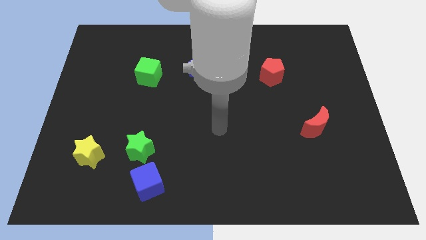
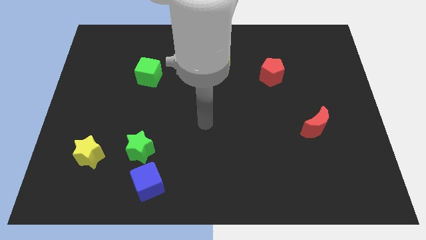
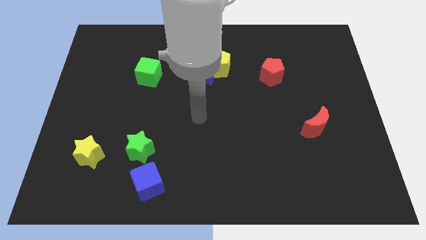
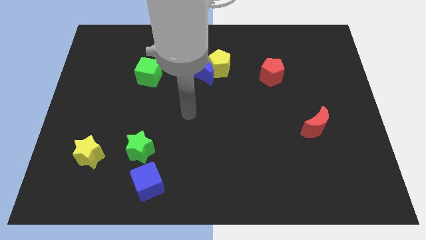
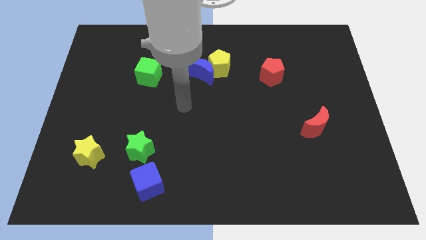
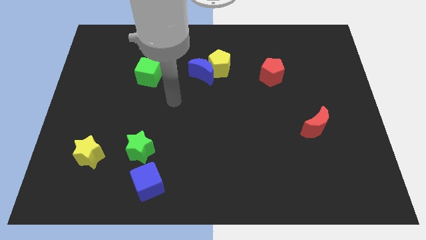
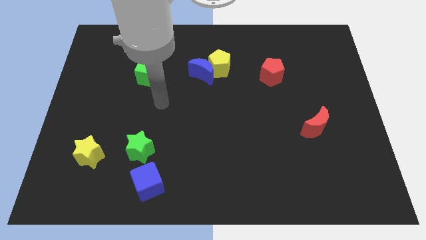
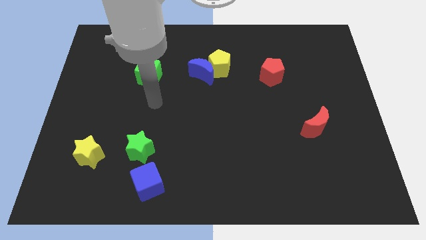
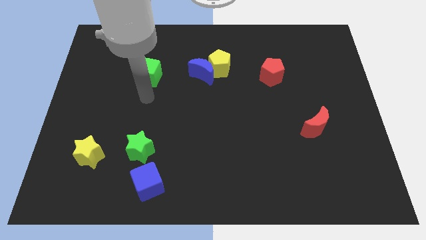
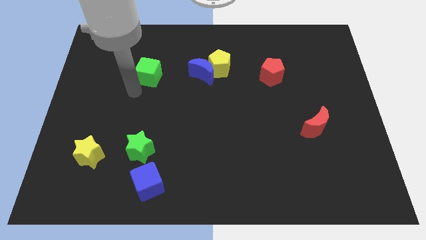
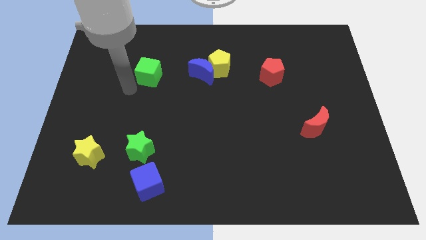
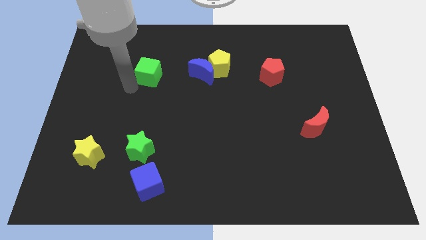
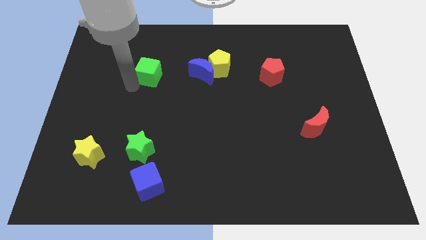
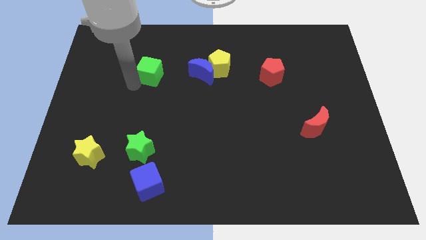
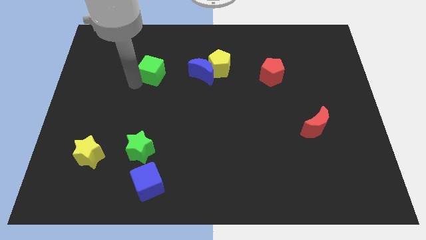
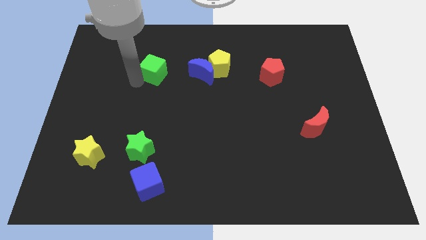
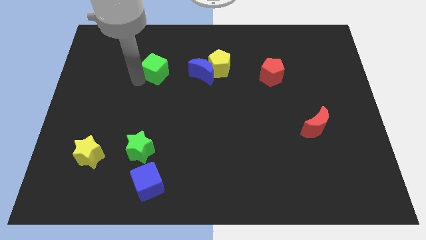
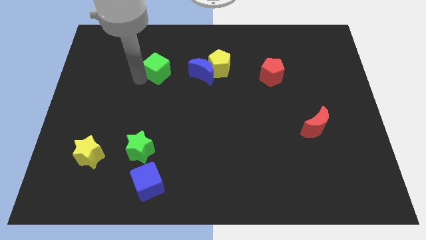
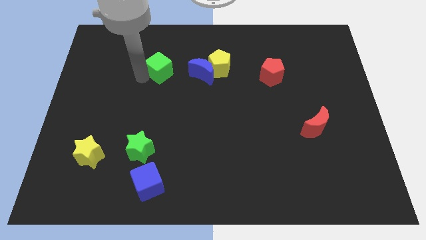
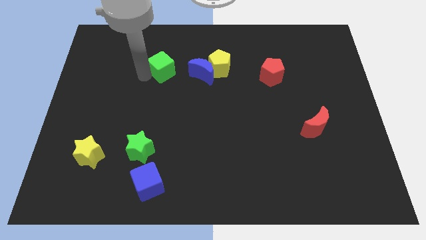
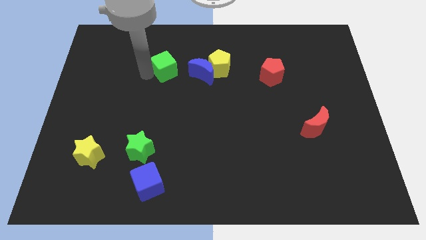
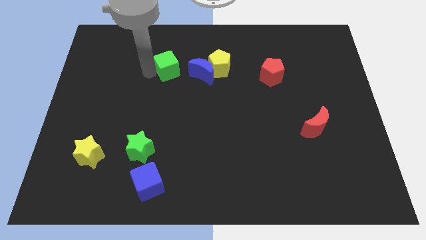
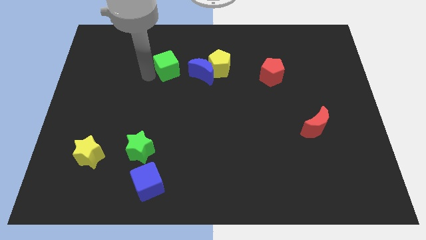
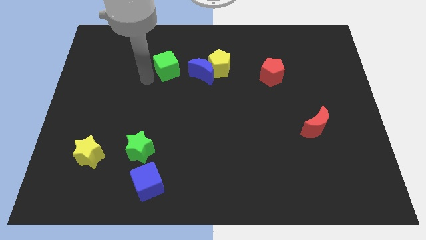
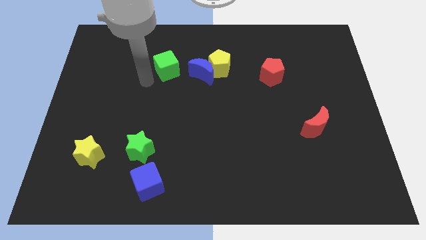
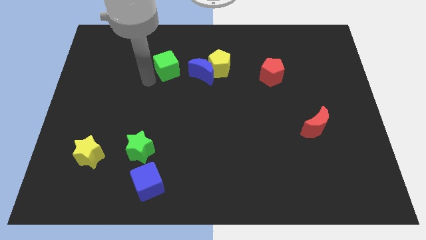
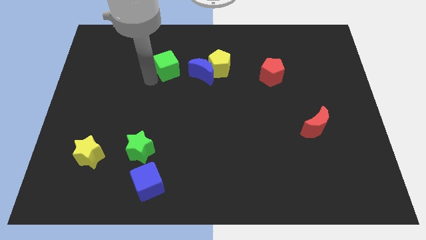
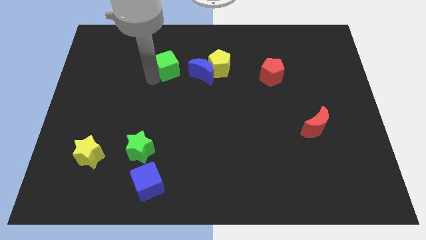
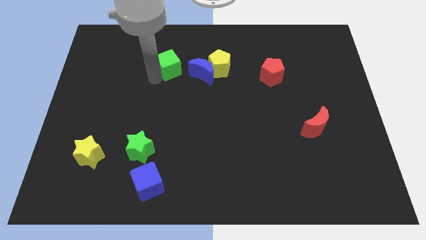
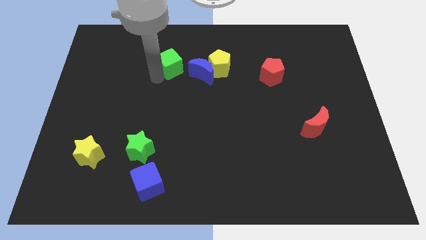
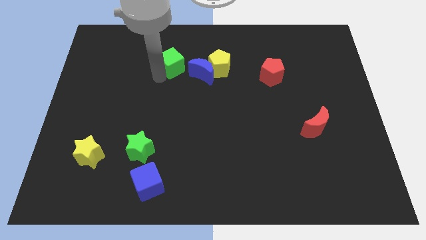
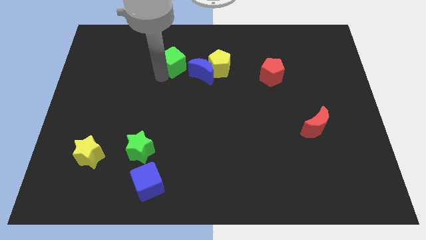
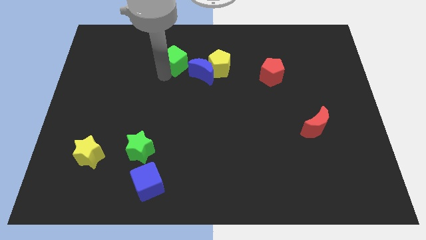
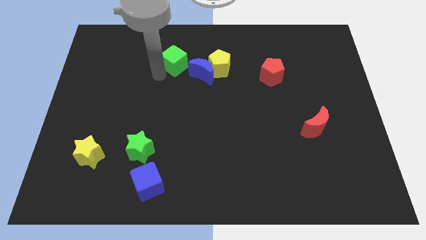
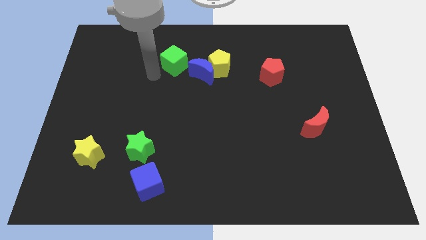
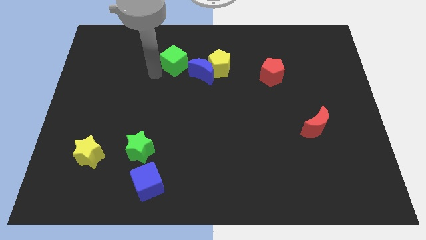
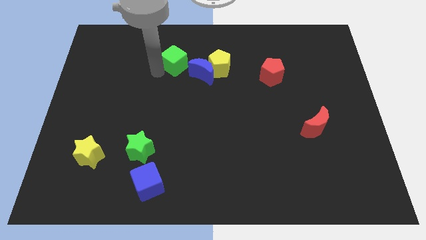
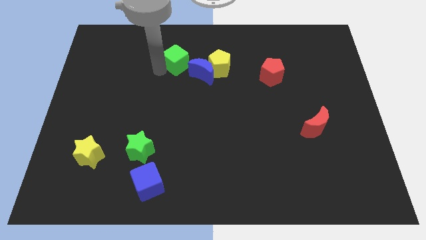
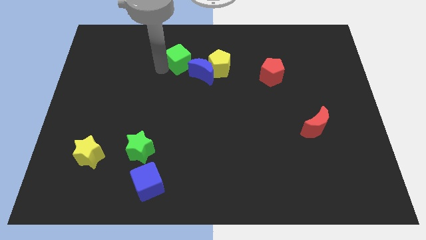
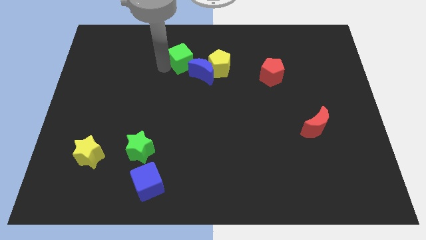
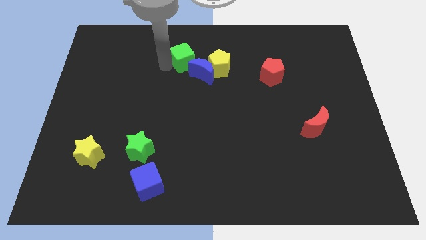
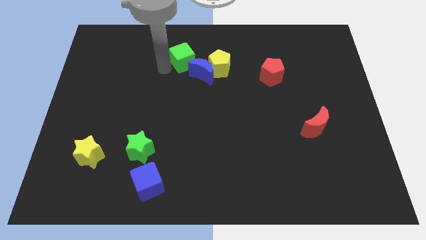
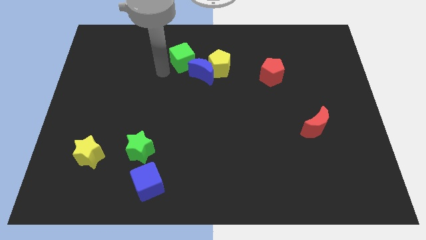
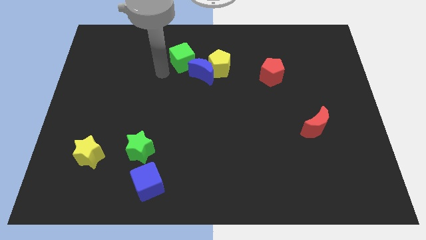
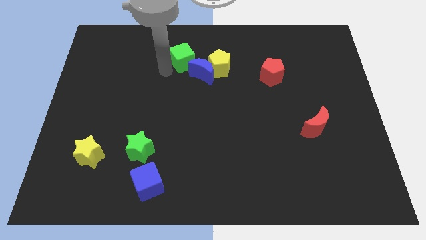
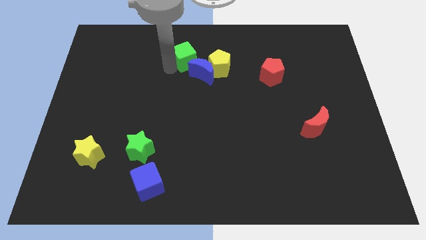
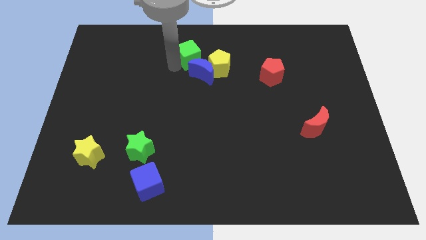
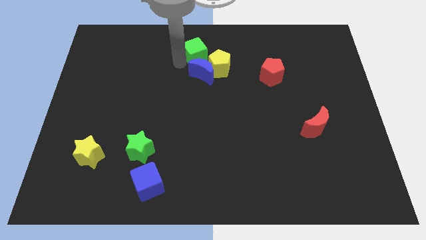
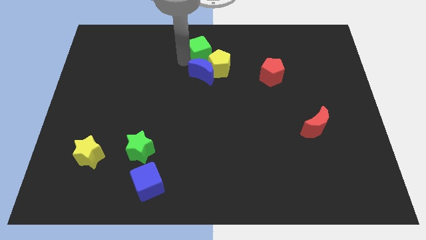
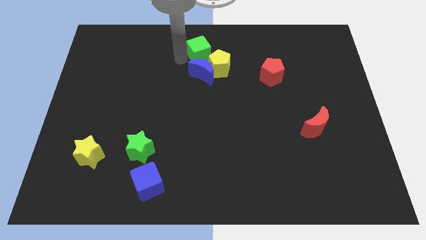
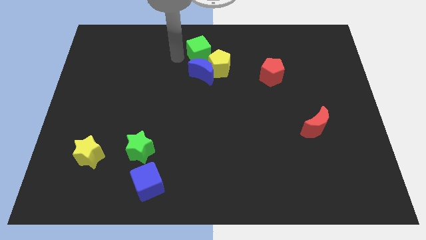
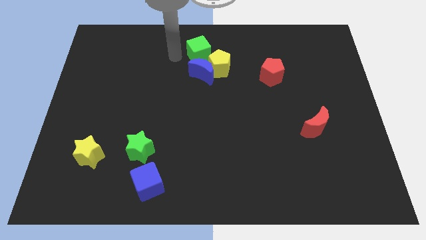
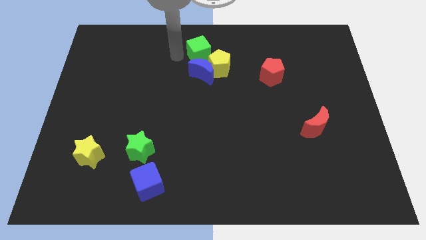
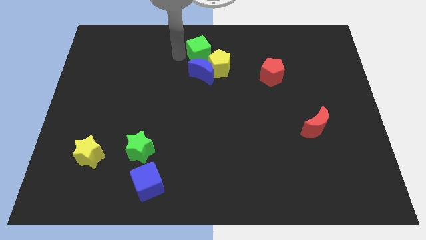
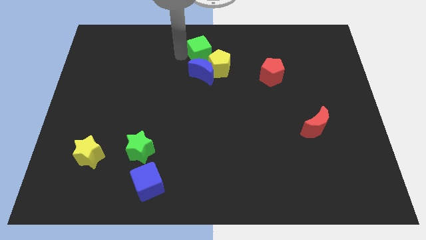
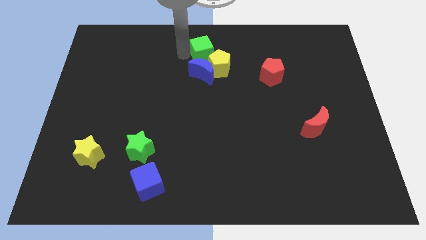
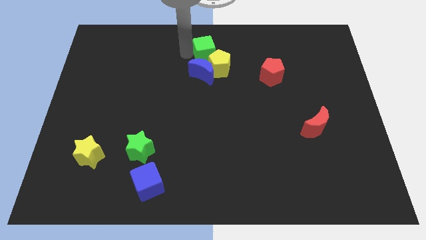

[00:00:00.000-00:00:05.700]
slide the green cube to the top right of the blue moon
